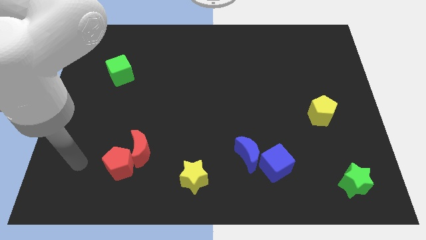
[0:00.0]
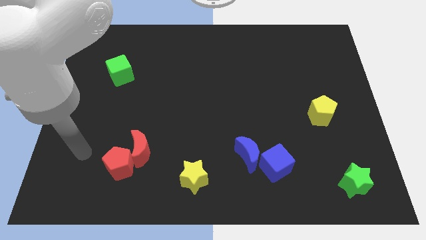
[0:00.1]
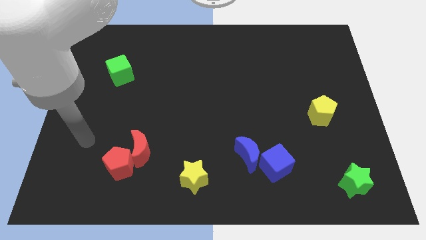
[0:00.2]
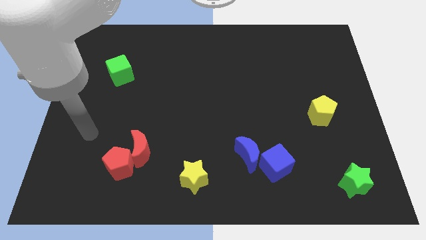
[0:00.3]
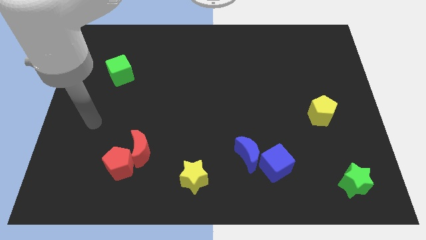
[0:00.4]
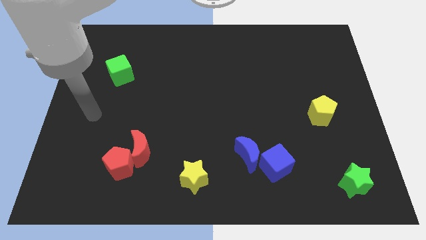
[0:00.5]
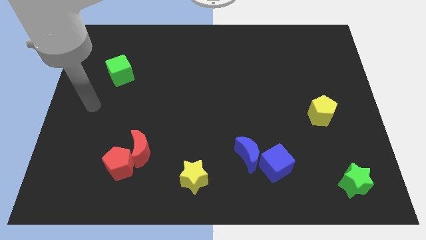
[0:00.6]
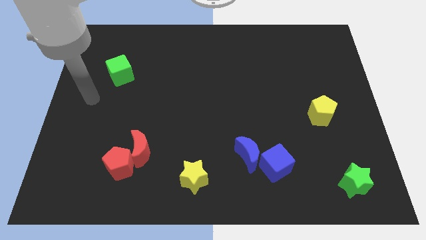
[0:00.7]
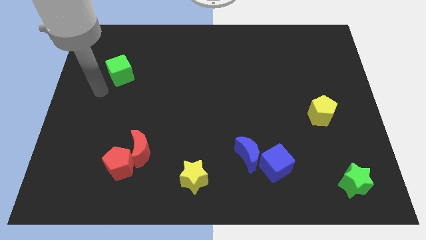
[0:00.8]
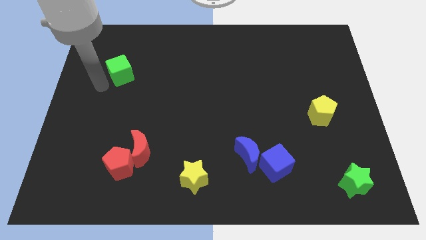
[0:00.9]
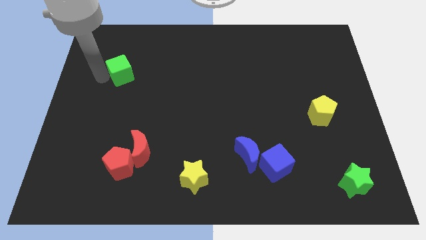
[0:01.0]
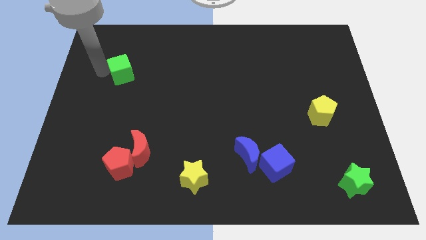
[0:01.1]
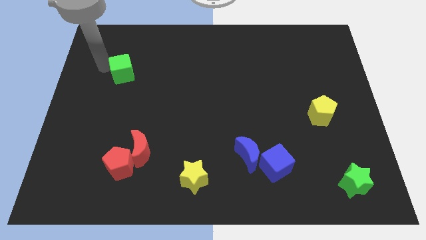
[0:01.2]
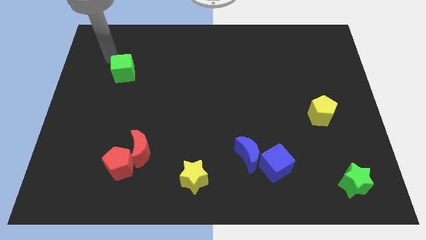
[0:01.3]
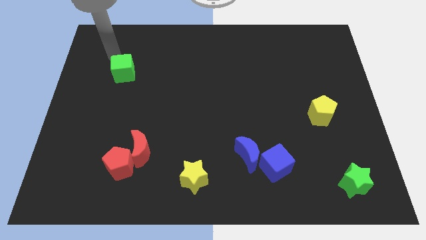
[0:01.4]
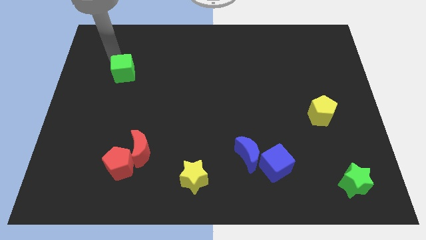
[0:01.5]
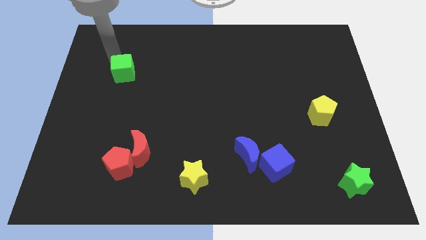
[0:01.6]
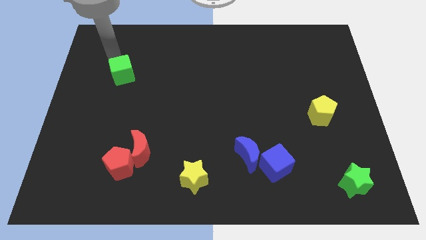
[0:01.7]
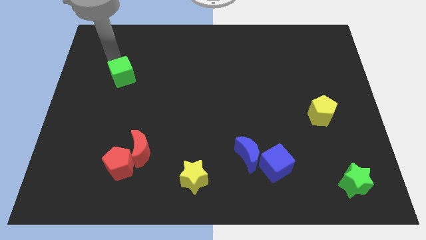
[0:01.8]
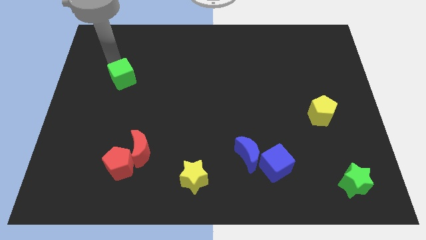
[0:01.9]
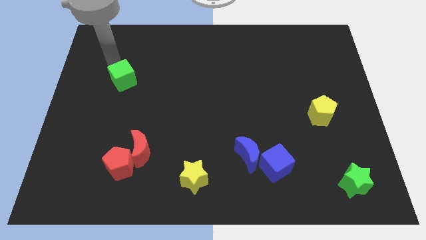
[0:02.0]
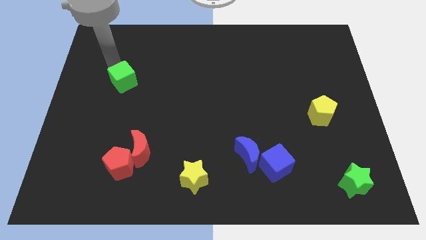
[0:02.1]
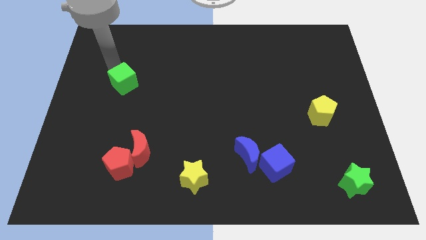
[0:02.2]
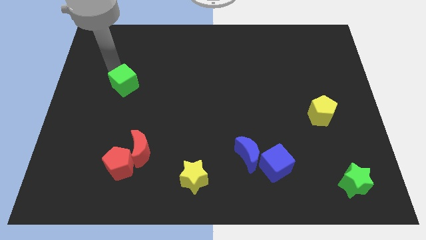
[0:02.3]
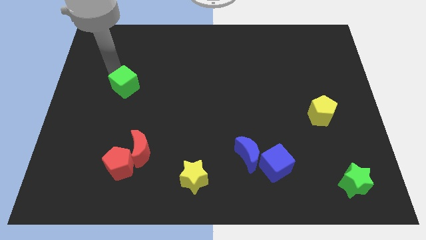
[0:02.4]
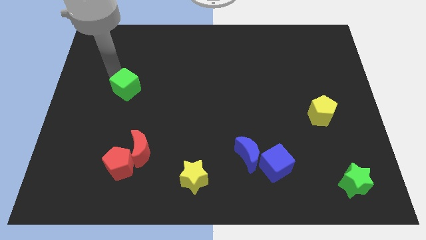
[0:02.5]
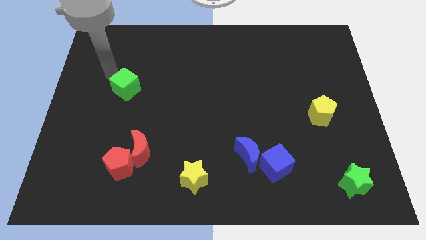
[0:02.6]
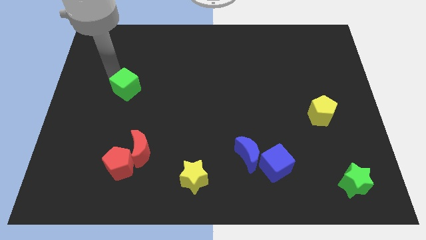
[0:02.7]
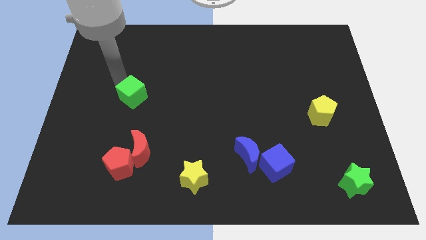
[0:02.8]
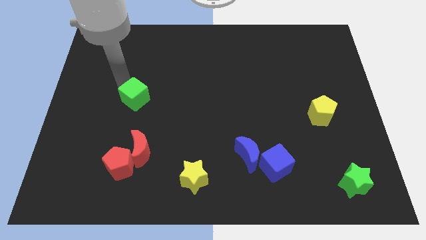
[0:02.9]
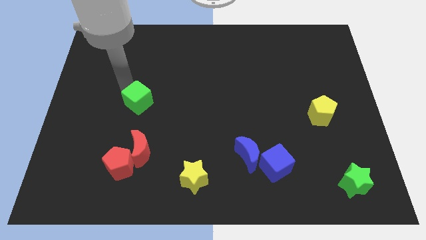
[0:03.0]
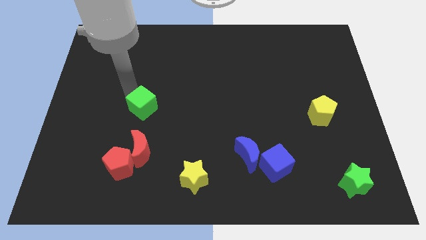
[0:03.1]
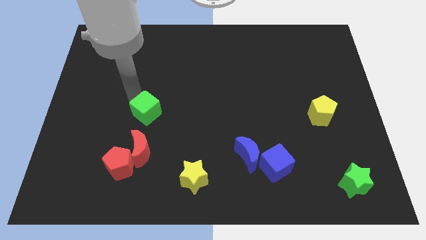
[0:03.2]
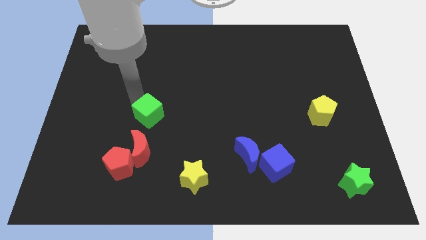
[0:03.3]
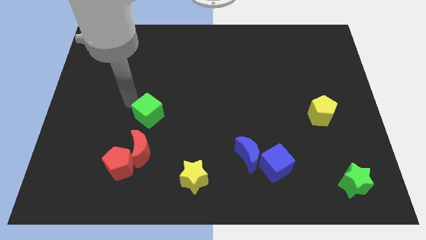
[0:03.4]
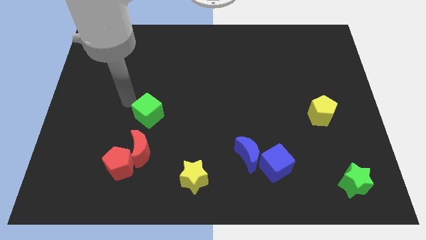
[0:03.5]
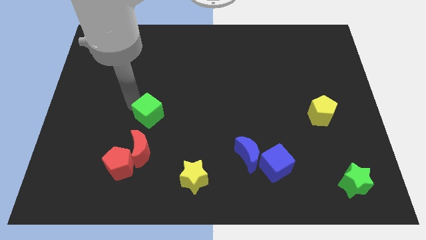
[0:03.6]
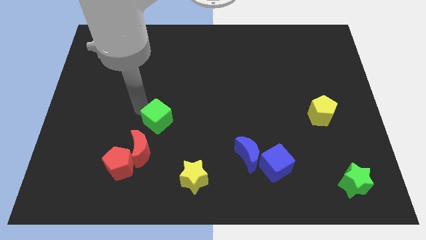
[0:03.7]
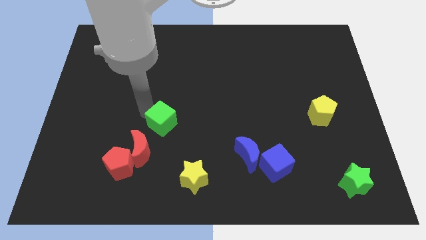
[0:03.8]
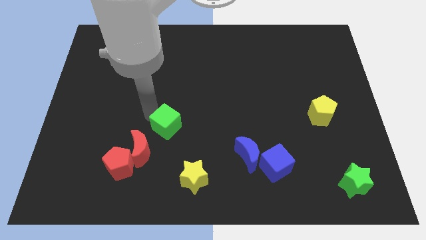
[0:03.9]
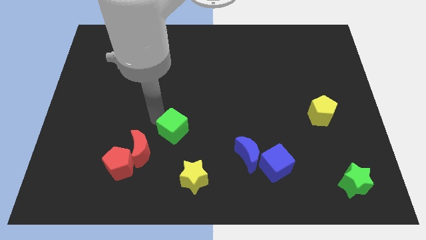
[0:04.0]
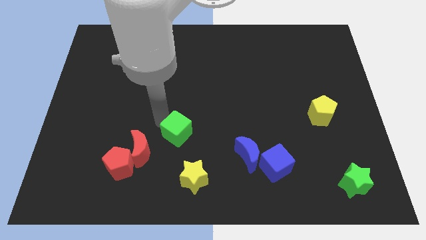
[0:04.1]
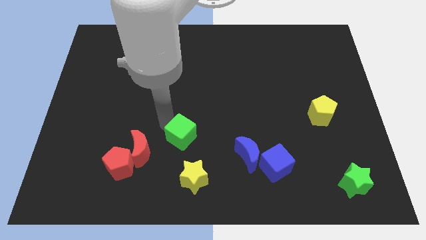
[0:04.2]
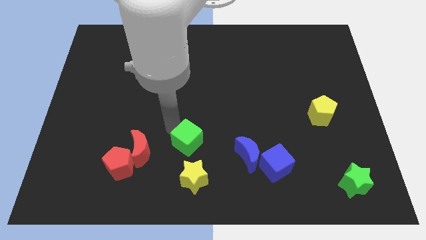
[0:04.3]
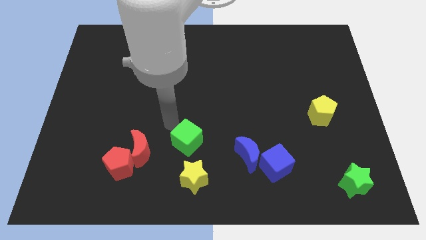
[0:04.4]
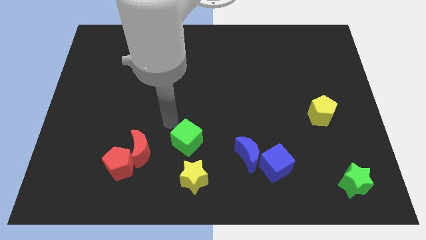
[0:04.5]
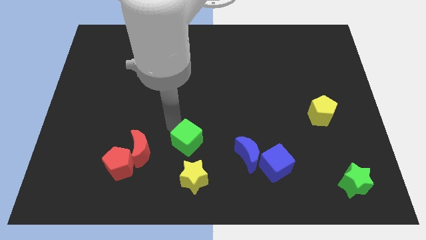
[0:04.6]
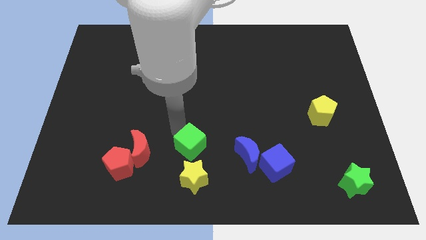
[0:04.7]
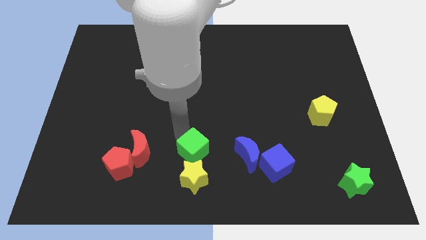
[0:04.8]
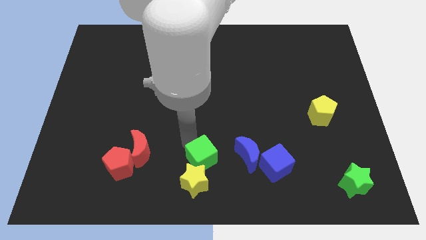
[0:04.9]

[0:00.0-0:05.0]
slide the green cube to the bottom

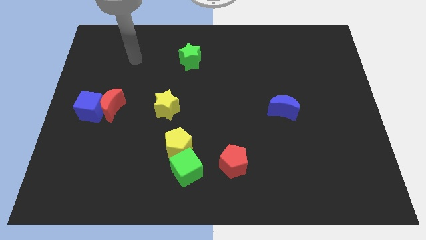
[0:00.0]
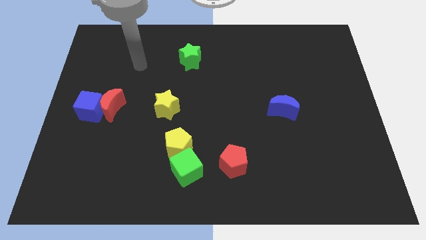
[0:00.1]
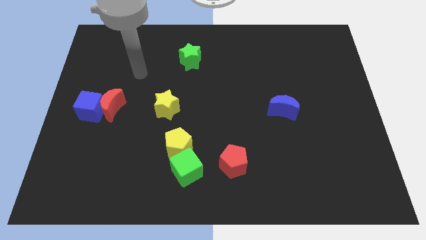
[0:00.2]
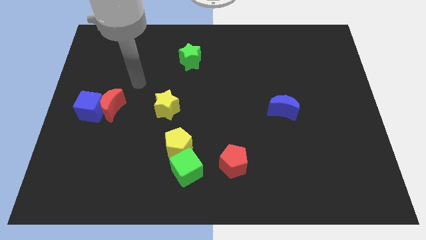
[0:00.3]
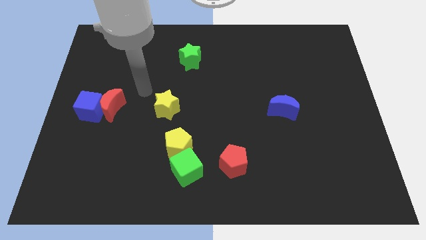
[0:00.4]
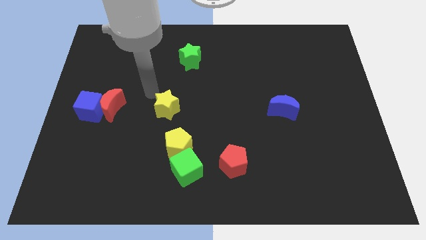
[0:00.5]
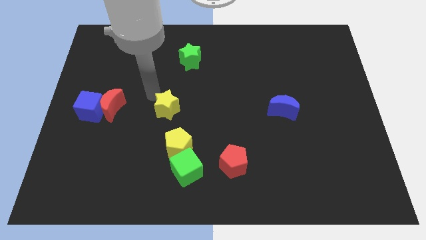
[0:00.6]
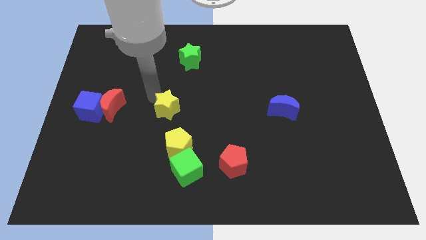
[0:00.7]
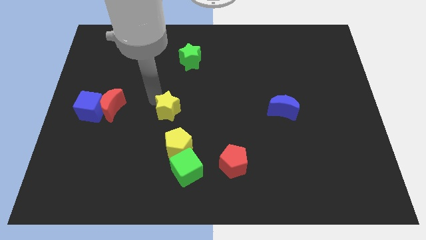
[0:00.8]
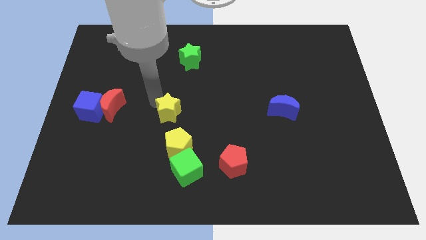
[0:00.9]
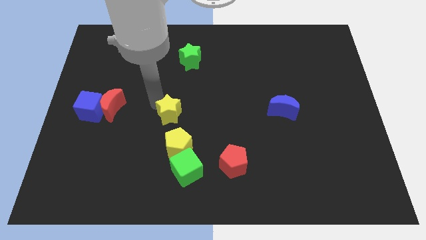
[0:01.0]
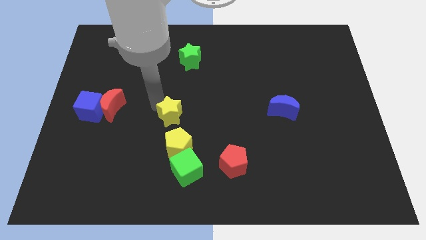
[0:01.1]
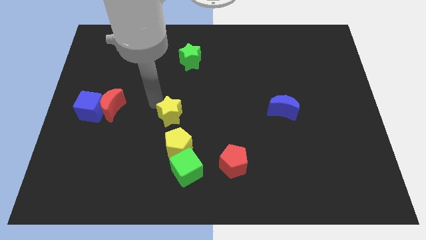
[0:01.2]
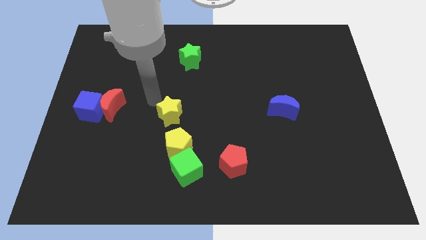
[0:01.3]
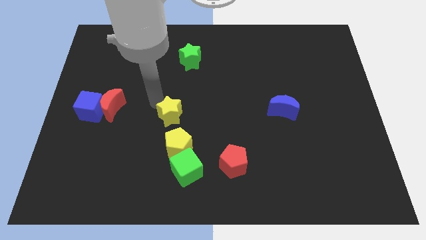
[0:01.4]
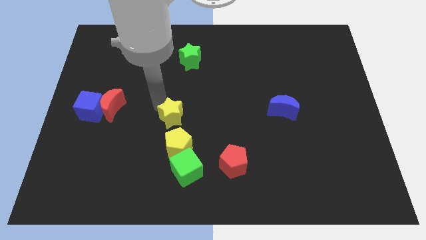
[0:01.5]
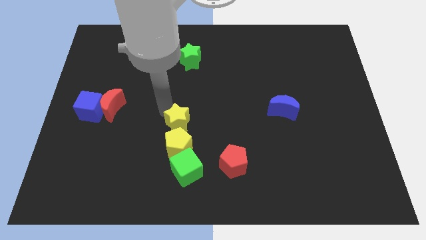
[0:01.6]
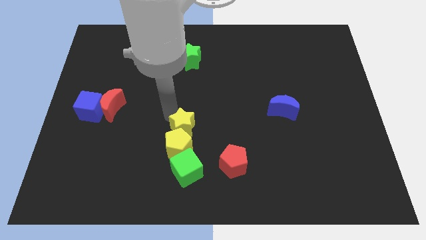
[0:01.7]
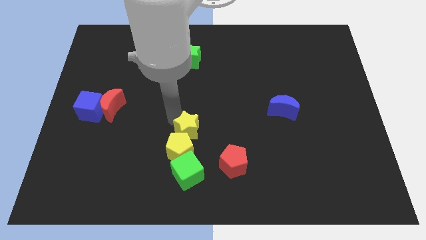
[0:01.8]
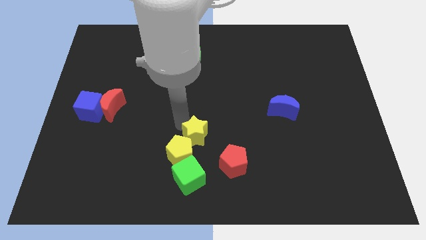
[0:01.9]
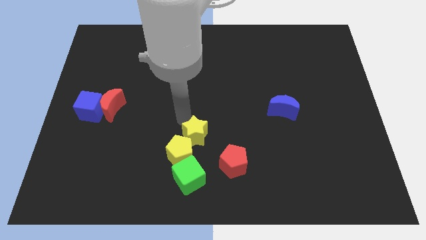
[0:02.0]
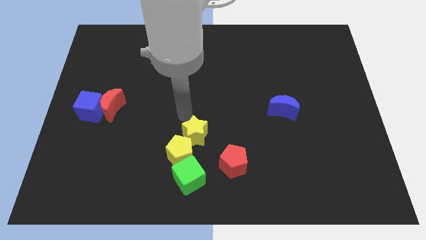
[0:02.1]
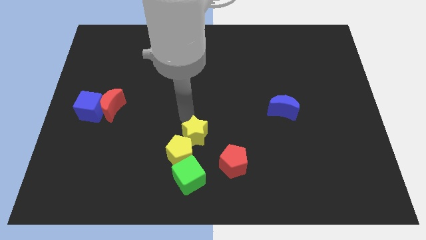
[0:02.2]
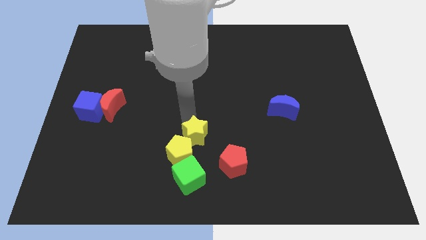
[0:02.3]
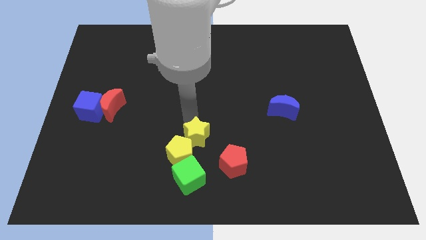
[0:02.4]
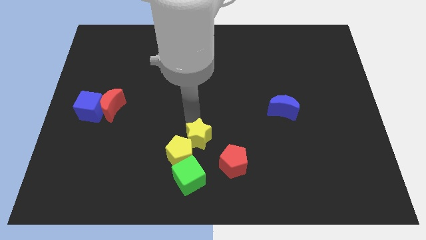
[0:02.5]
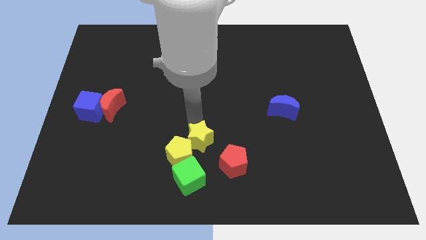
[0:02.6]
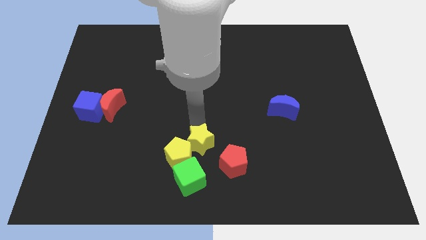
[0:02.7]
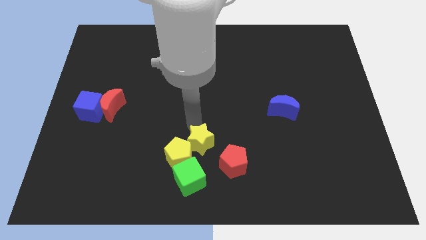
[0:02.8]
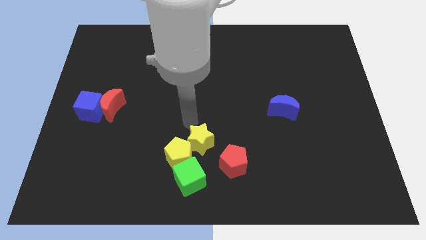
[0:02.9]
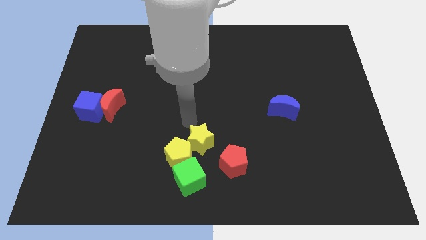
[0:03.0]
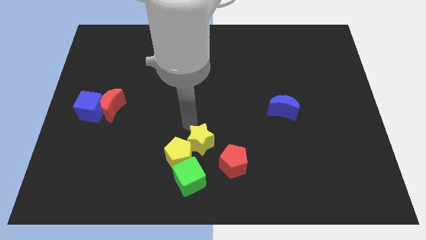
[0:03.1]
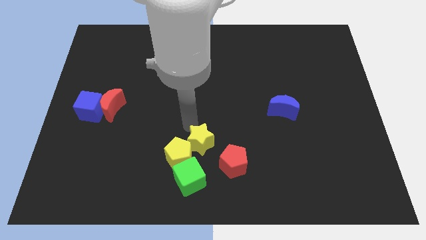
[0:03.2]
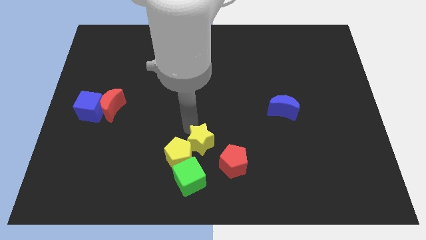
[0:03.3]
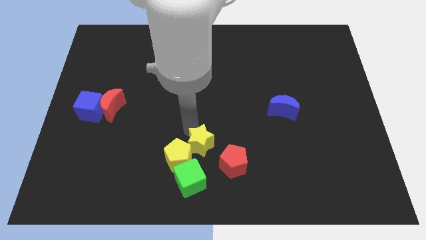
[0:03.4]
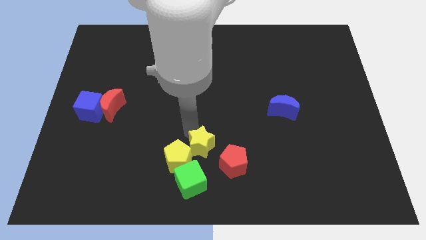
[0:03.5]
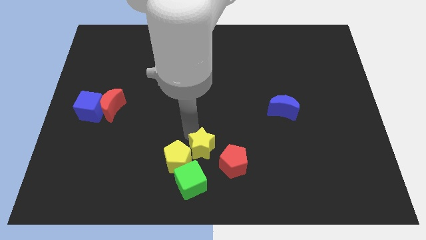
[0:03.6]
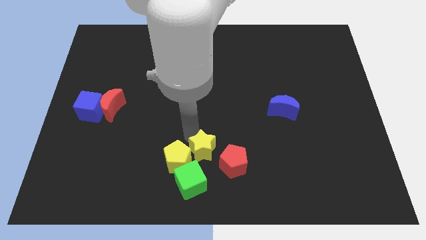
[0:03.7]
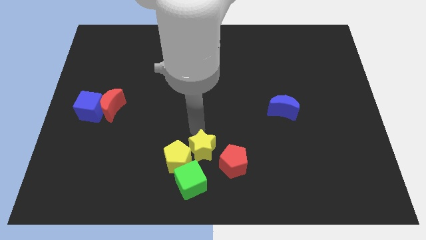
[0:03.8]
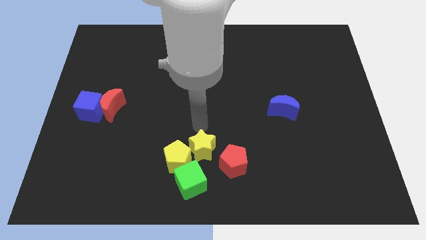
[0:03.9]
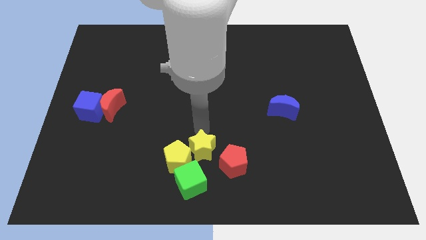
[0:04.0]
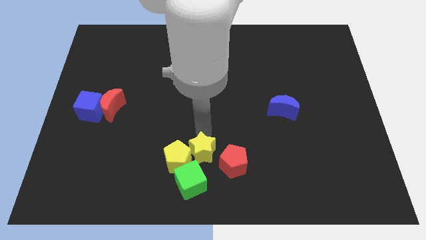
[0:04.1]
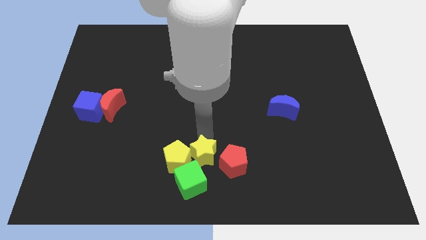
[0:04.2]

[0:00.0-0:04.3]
push the yellow star to the bottom
